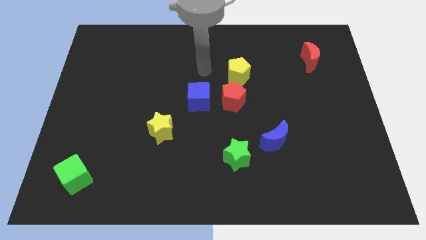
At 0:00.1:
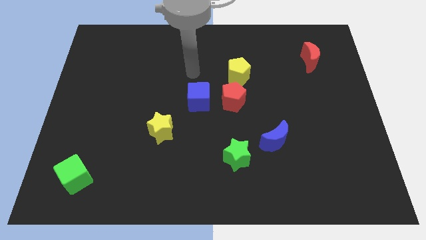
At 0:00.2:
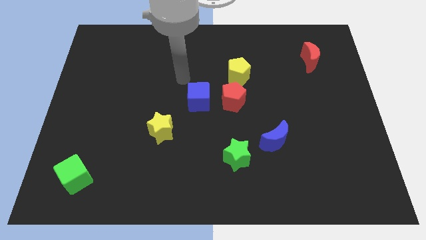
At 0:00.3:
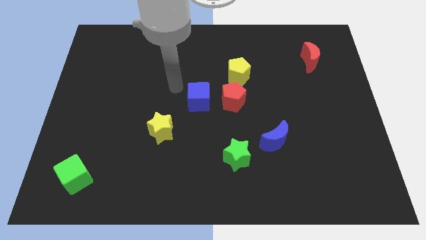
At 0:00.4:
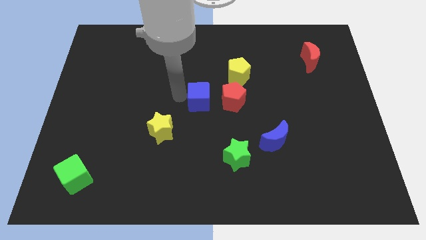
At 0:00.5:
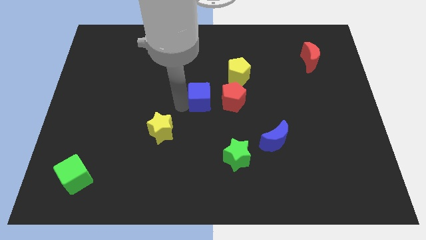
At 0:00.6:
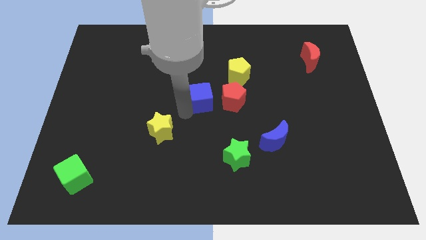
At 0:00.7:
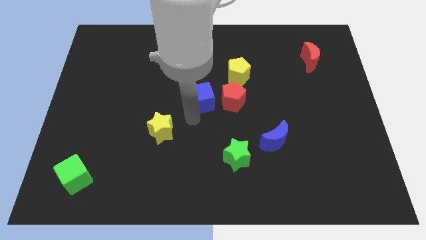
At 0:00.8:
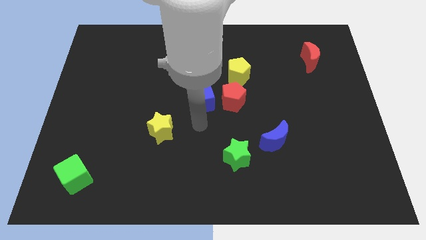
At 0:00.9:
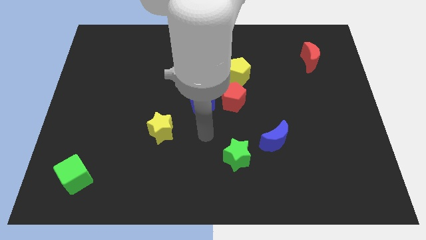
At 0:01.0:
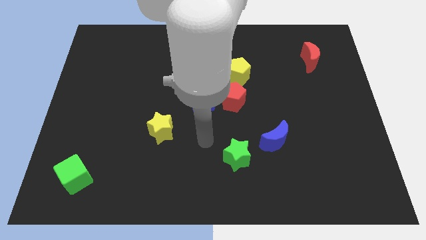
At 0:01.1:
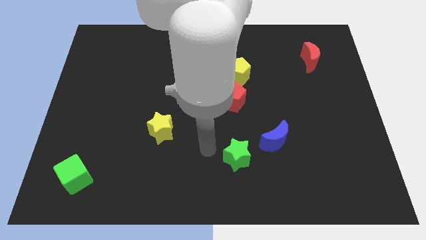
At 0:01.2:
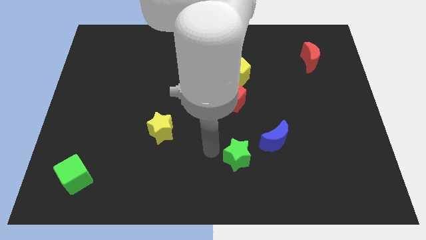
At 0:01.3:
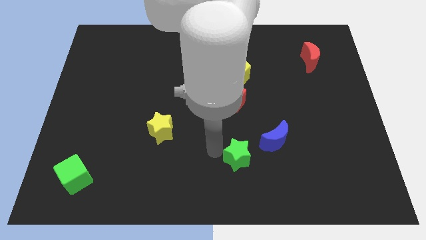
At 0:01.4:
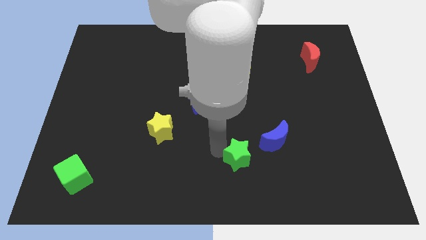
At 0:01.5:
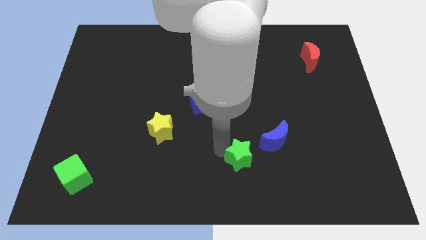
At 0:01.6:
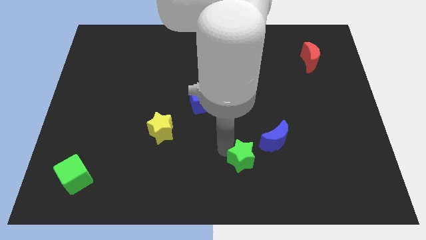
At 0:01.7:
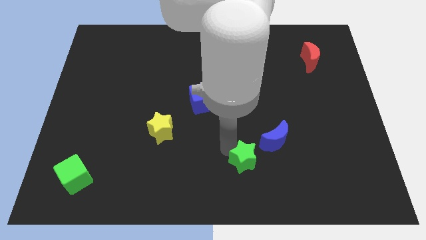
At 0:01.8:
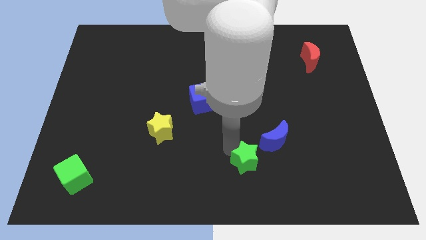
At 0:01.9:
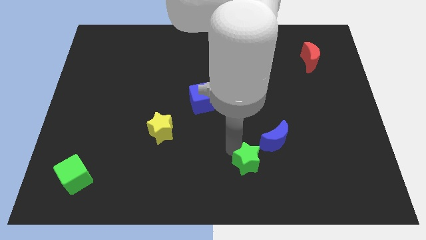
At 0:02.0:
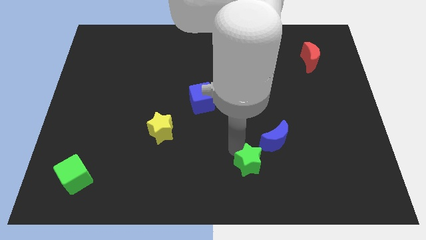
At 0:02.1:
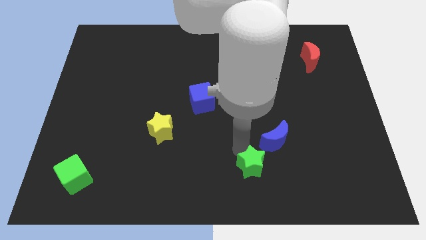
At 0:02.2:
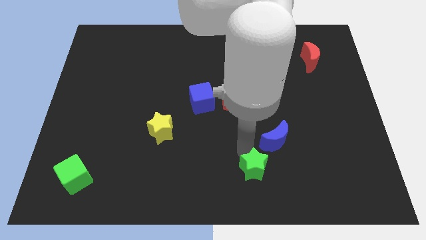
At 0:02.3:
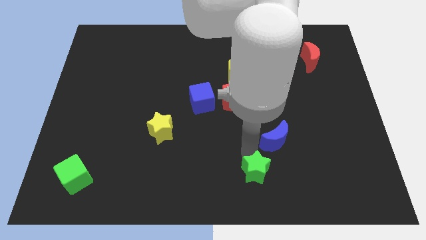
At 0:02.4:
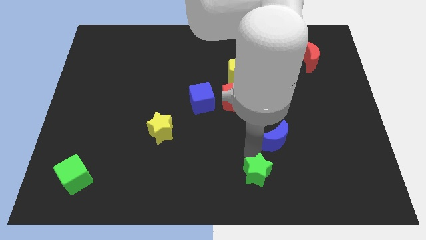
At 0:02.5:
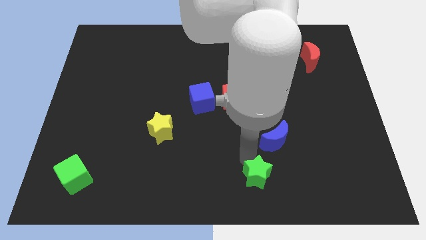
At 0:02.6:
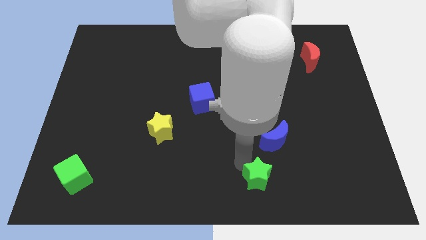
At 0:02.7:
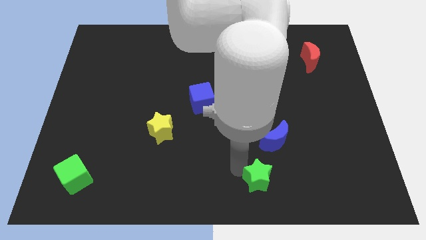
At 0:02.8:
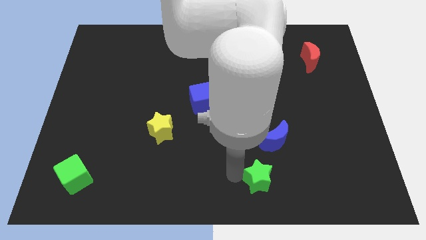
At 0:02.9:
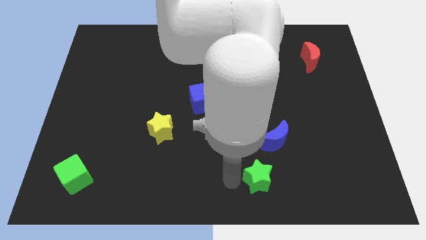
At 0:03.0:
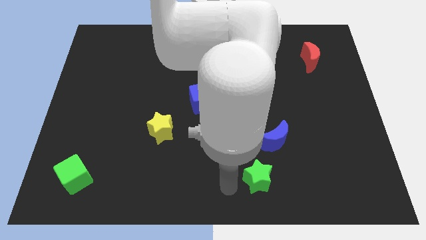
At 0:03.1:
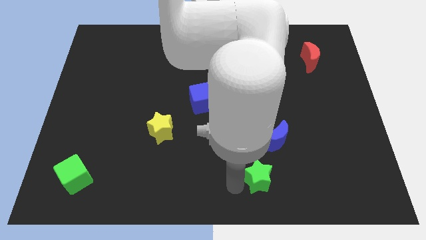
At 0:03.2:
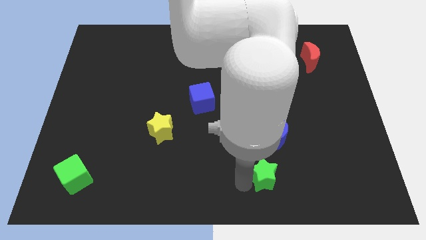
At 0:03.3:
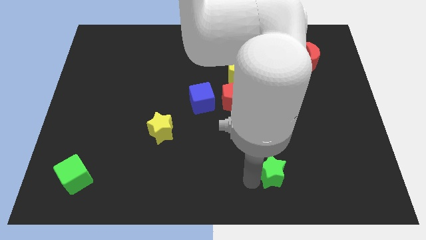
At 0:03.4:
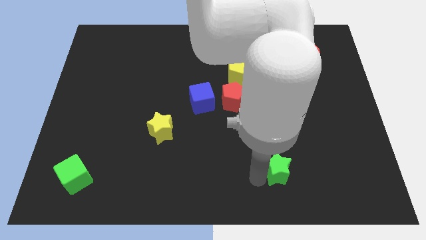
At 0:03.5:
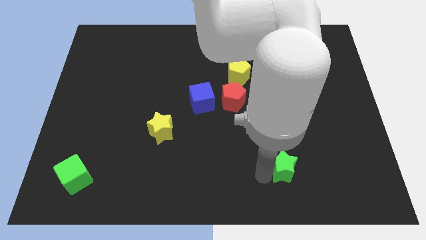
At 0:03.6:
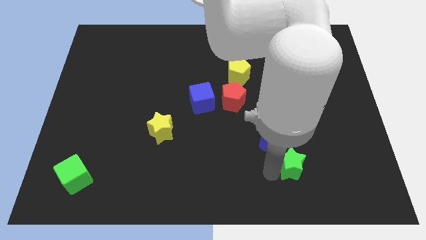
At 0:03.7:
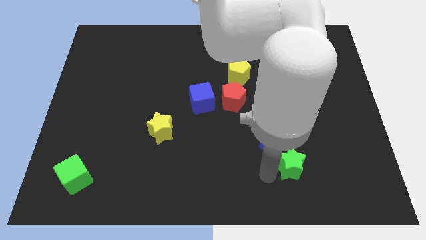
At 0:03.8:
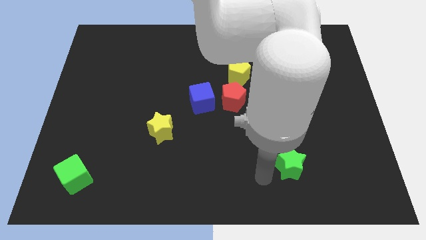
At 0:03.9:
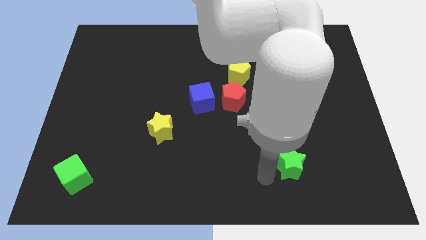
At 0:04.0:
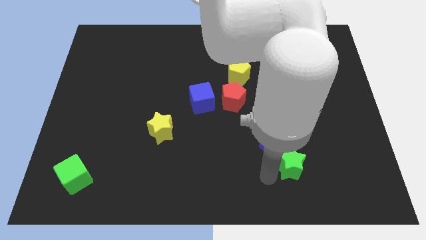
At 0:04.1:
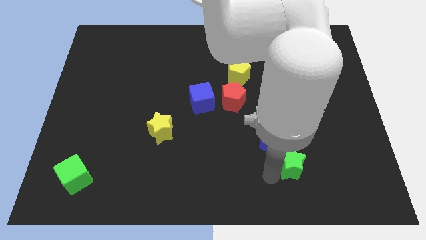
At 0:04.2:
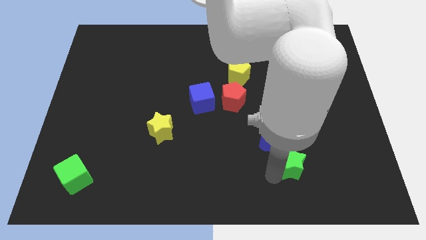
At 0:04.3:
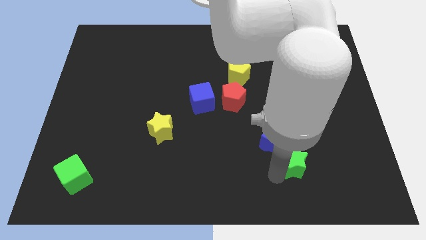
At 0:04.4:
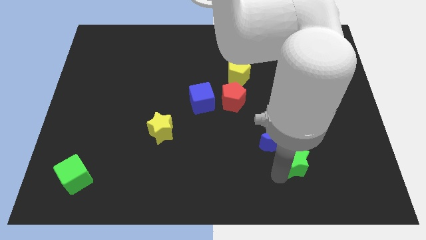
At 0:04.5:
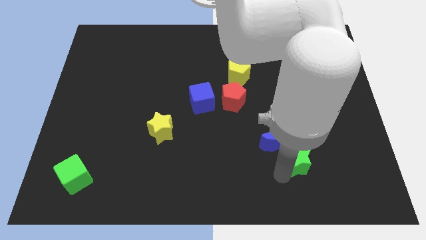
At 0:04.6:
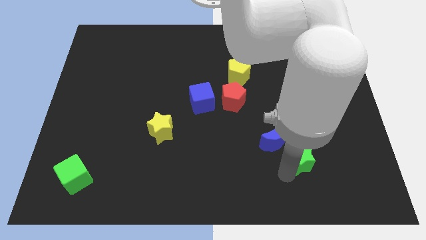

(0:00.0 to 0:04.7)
put the green star to the right of the blue moon

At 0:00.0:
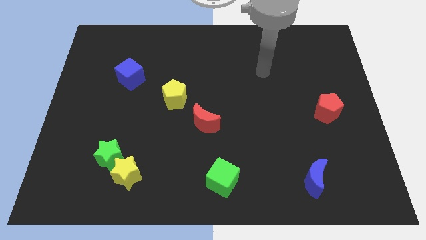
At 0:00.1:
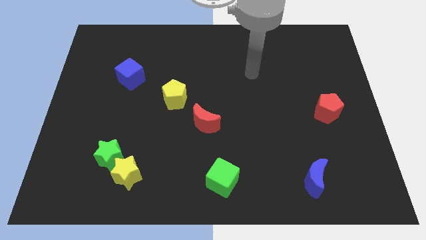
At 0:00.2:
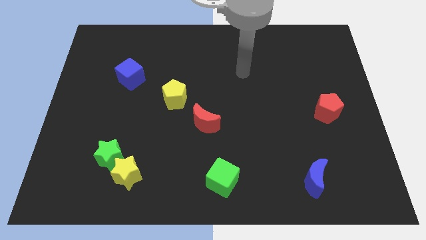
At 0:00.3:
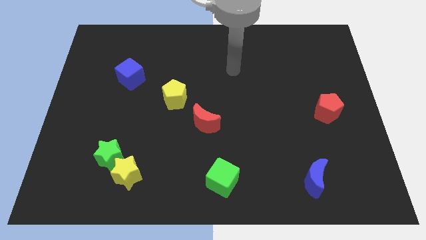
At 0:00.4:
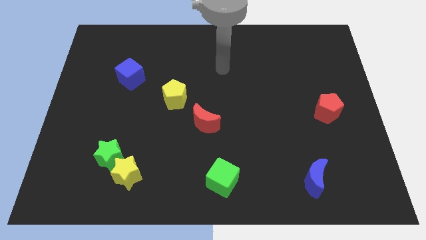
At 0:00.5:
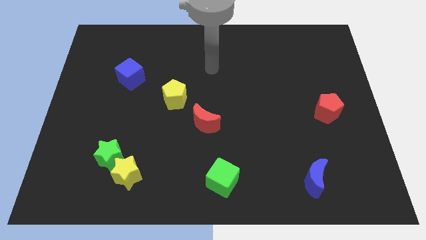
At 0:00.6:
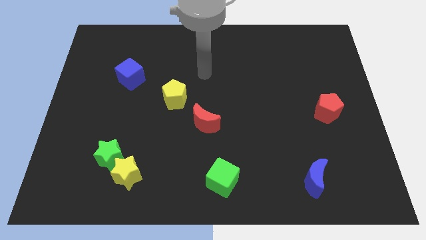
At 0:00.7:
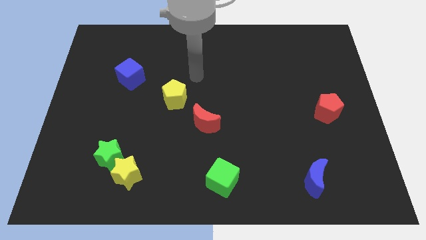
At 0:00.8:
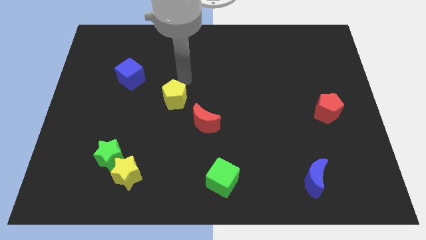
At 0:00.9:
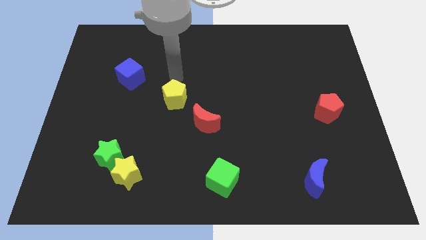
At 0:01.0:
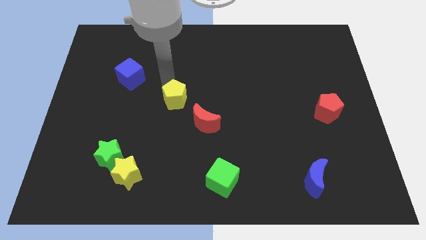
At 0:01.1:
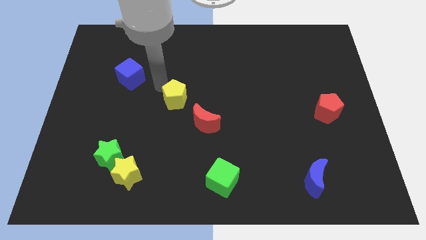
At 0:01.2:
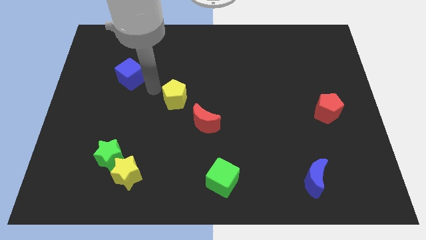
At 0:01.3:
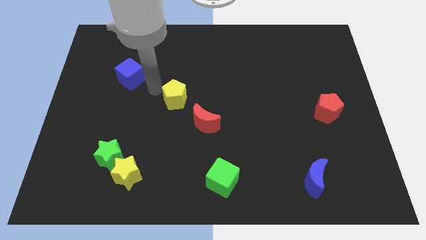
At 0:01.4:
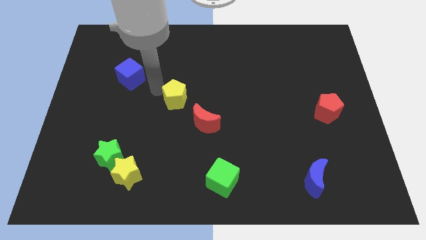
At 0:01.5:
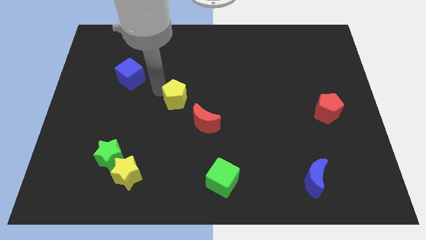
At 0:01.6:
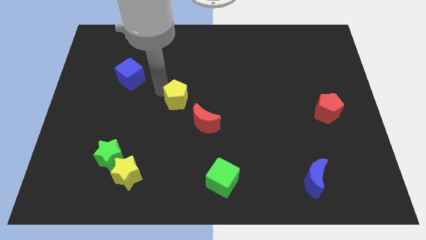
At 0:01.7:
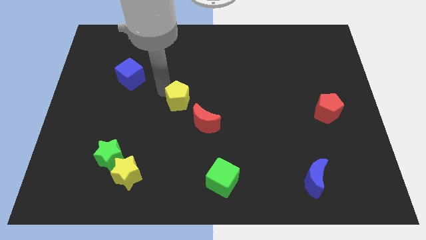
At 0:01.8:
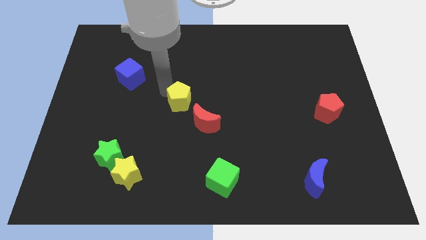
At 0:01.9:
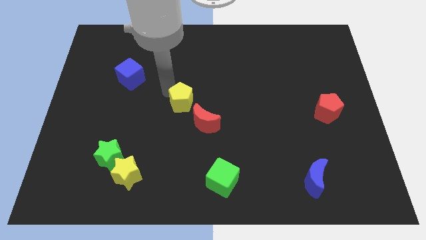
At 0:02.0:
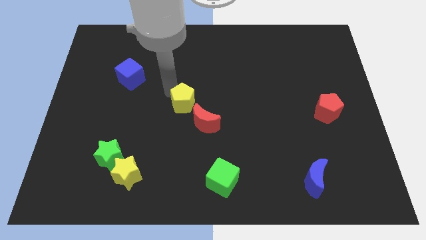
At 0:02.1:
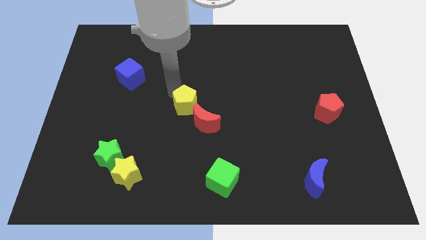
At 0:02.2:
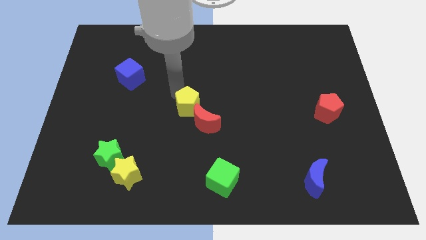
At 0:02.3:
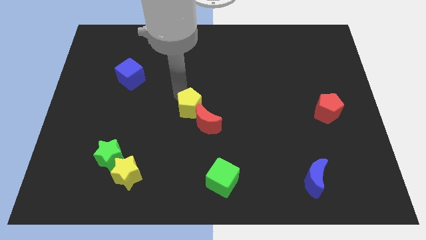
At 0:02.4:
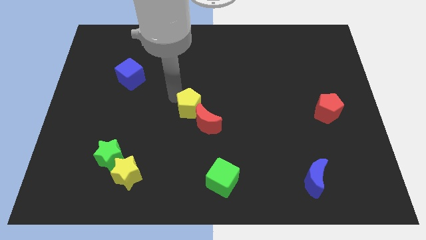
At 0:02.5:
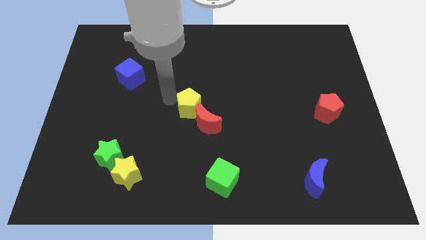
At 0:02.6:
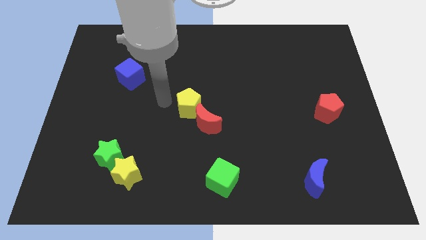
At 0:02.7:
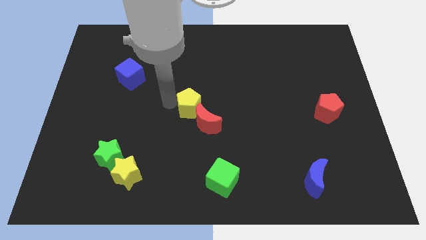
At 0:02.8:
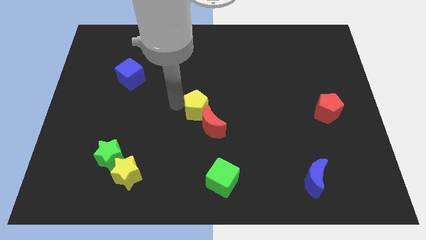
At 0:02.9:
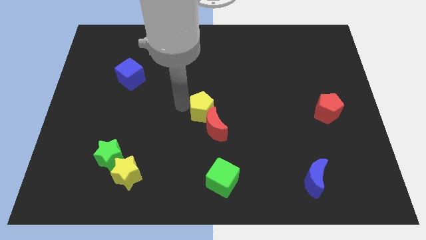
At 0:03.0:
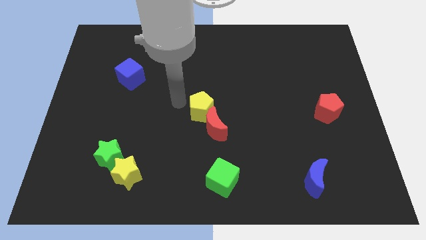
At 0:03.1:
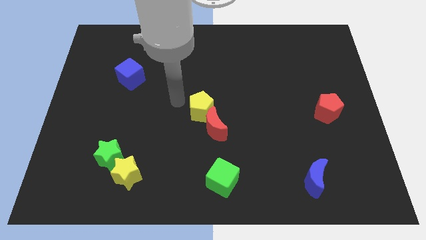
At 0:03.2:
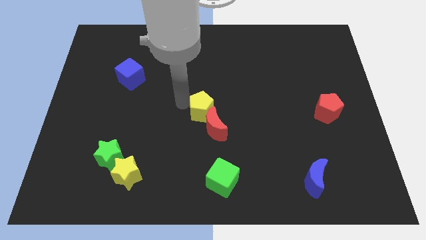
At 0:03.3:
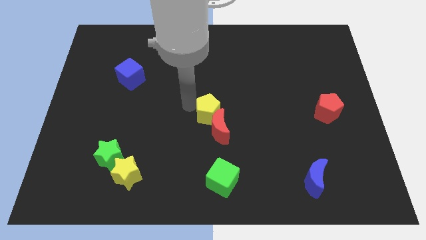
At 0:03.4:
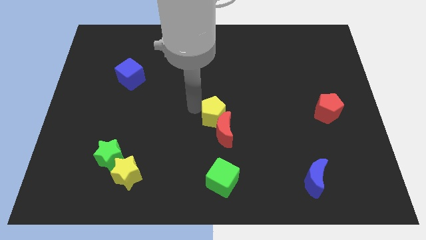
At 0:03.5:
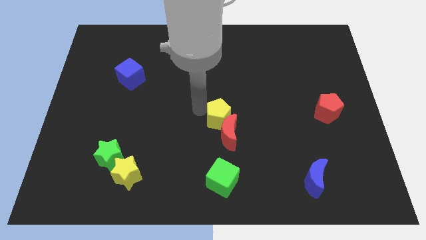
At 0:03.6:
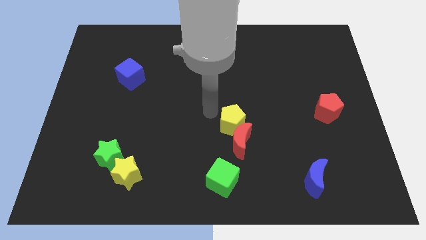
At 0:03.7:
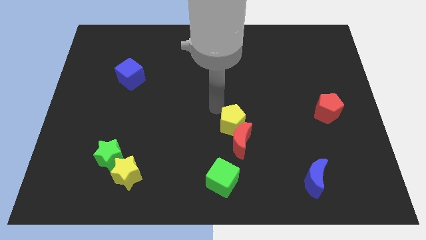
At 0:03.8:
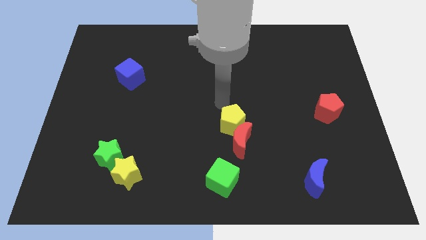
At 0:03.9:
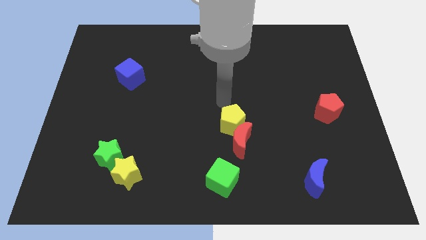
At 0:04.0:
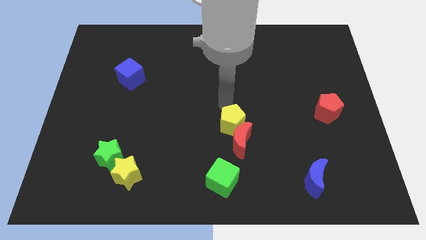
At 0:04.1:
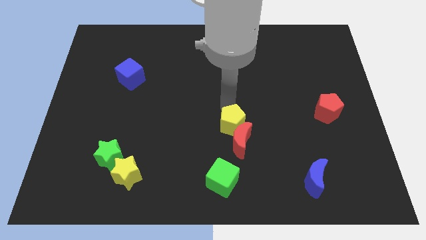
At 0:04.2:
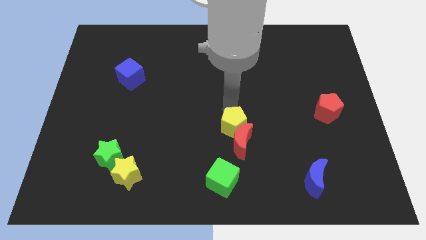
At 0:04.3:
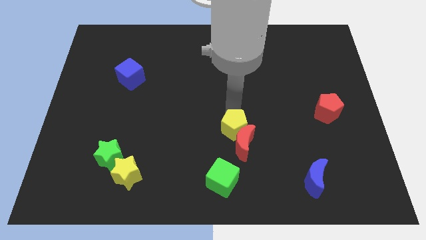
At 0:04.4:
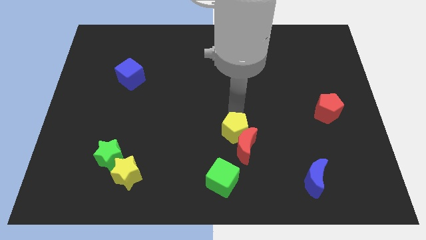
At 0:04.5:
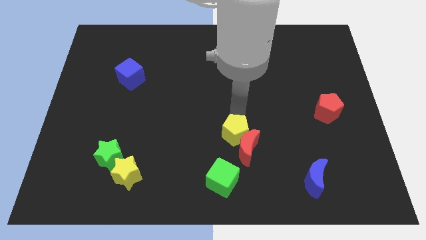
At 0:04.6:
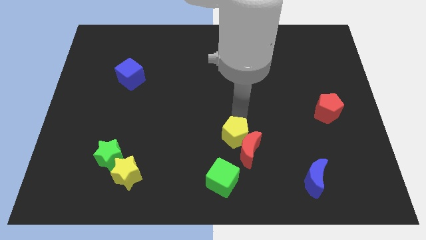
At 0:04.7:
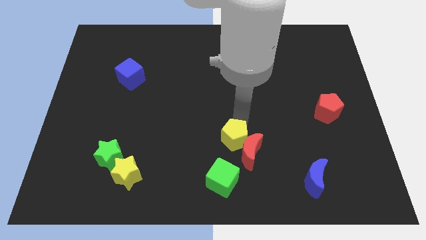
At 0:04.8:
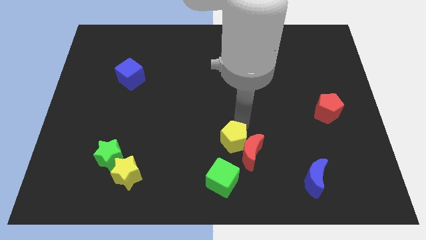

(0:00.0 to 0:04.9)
push the yellow pentagon diagonally up and to the right of the green cube
